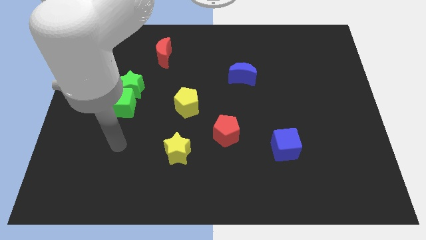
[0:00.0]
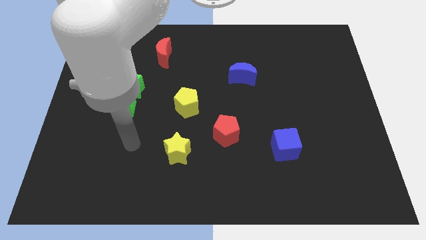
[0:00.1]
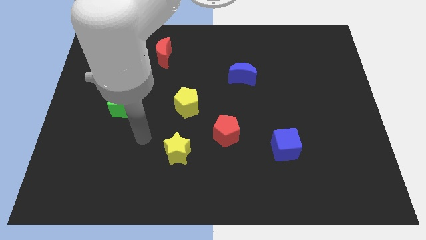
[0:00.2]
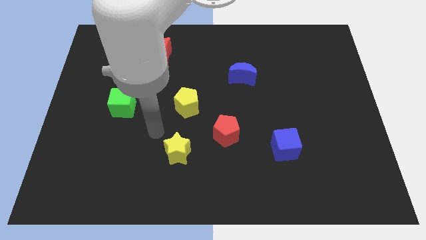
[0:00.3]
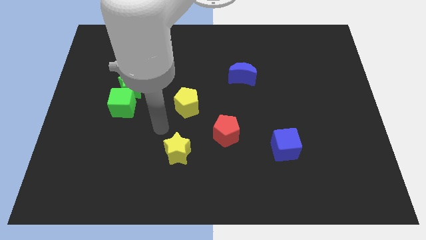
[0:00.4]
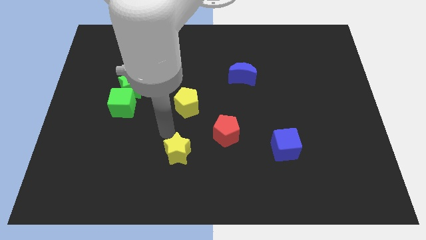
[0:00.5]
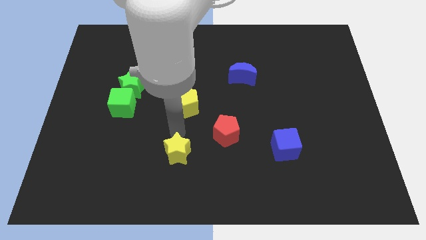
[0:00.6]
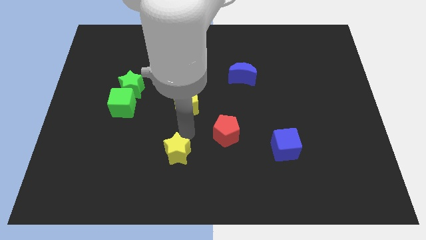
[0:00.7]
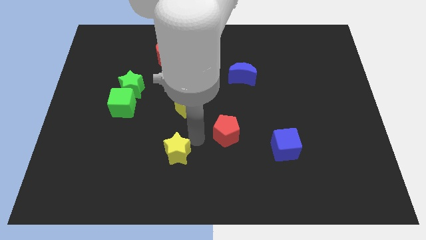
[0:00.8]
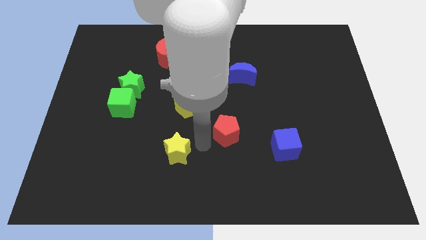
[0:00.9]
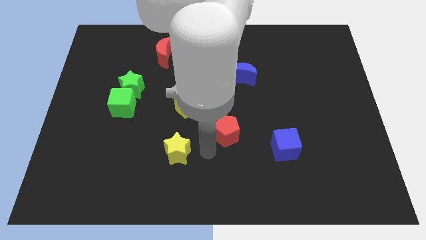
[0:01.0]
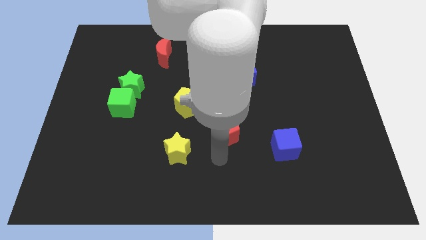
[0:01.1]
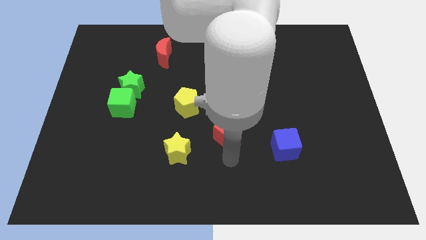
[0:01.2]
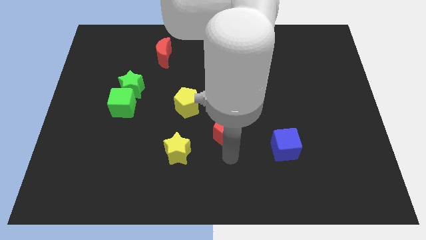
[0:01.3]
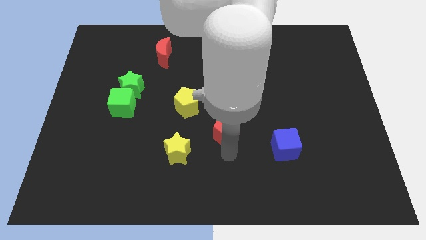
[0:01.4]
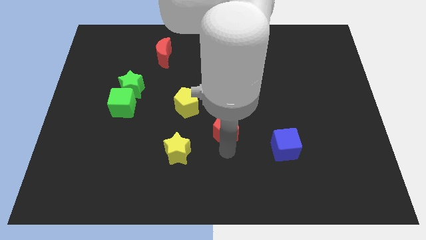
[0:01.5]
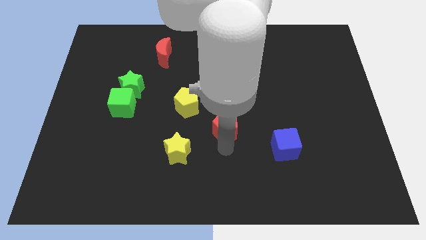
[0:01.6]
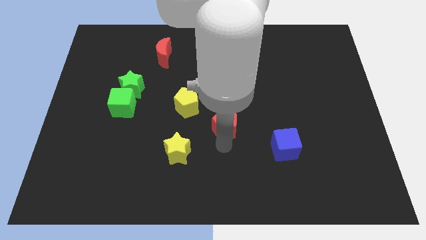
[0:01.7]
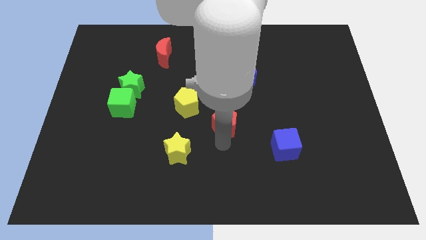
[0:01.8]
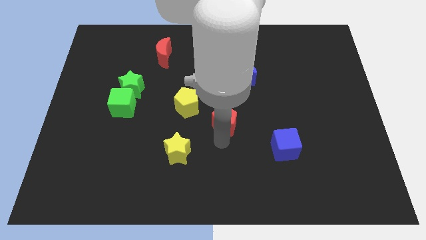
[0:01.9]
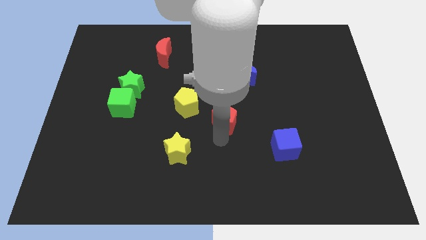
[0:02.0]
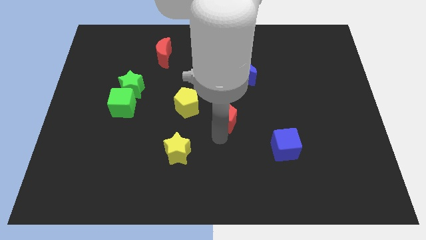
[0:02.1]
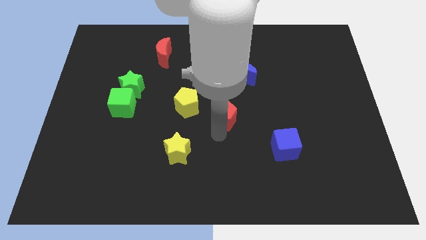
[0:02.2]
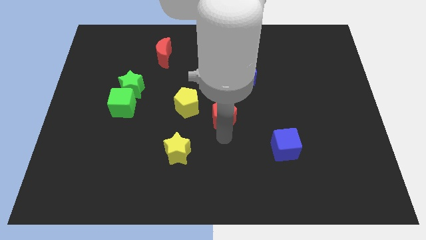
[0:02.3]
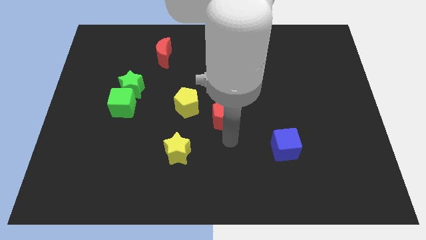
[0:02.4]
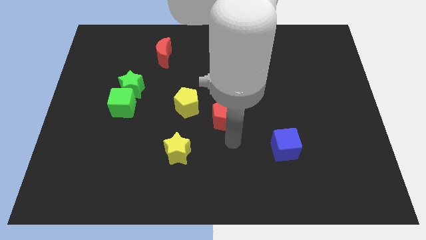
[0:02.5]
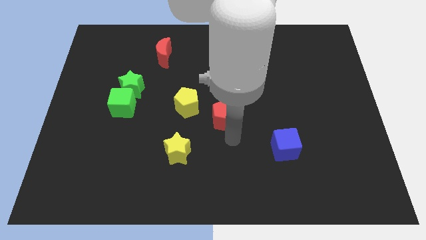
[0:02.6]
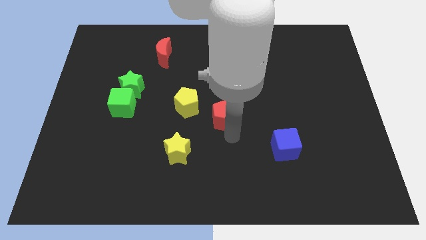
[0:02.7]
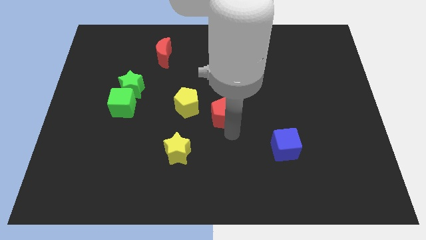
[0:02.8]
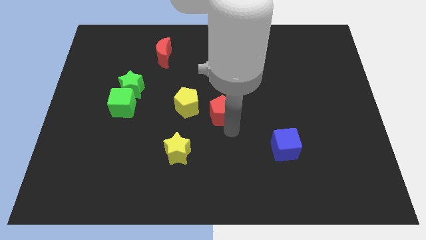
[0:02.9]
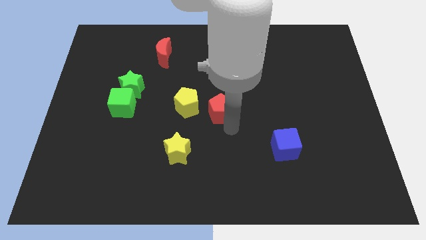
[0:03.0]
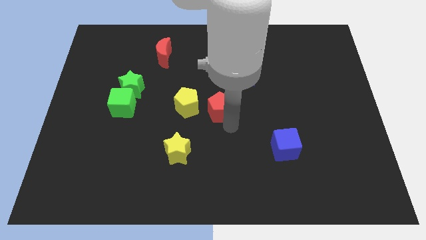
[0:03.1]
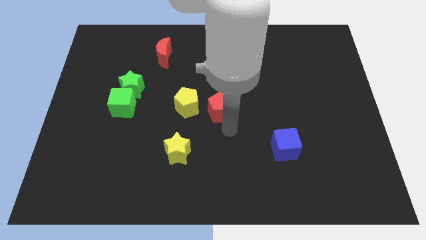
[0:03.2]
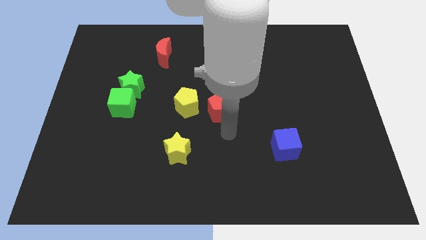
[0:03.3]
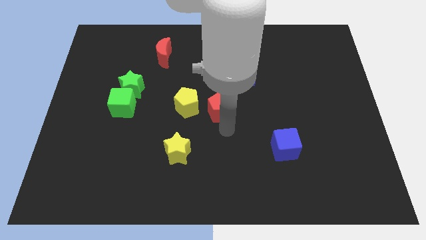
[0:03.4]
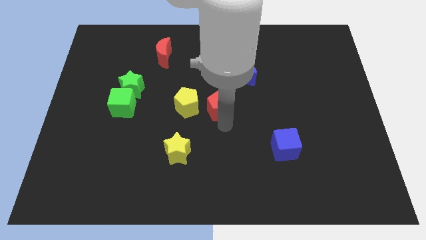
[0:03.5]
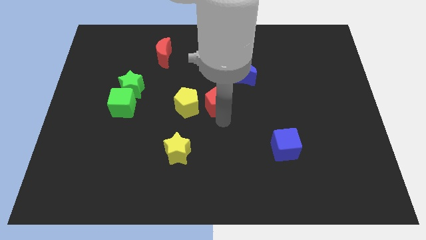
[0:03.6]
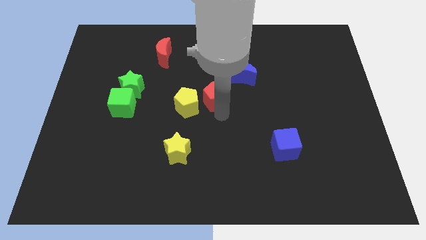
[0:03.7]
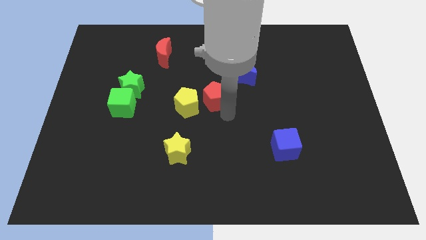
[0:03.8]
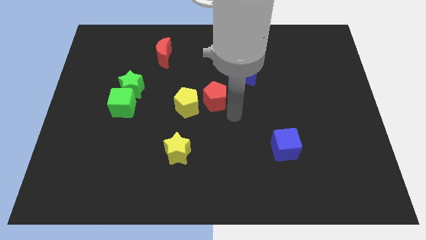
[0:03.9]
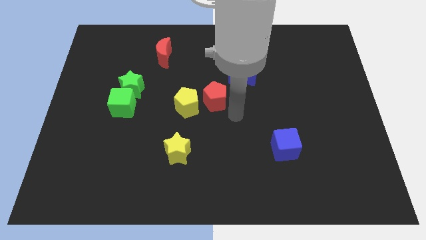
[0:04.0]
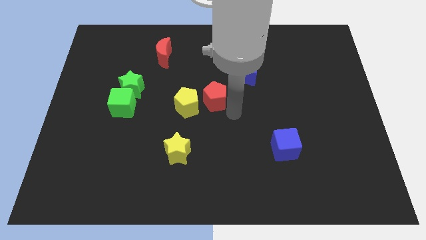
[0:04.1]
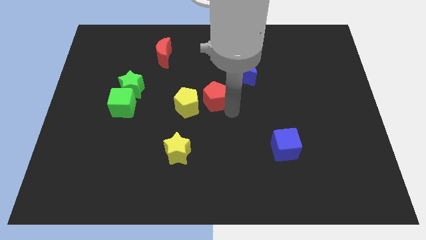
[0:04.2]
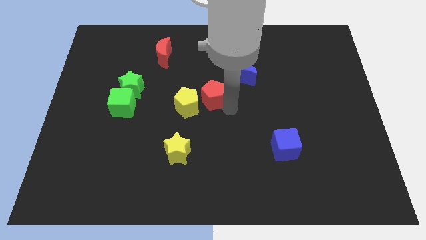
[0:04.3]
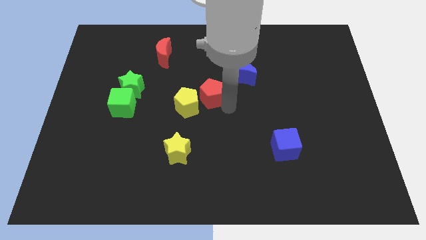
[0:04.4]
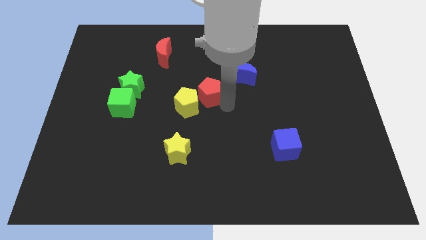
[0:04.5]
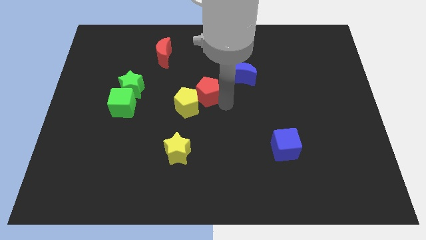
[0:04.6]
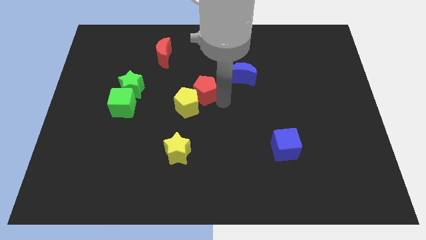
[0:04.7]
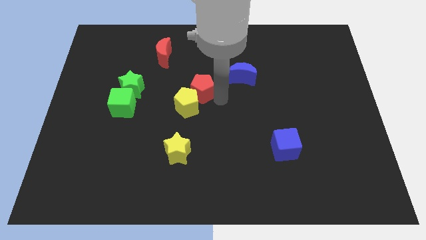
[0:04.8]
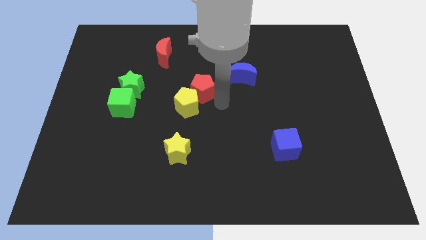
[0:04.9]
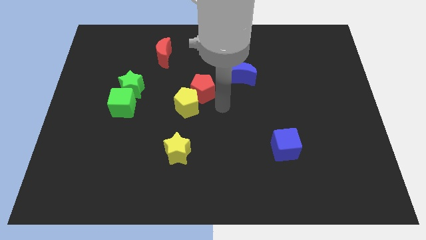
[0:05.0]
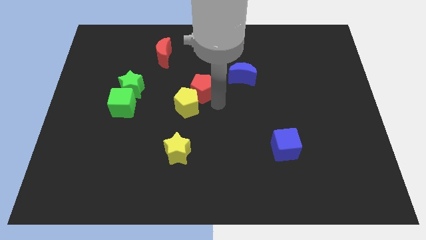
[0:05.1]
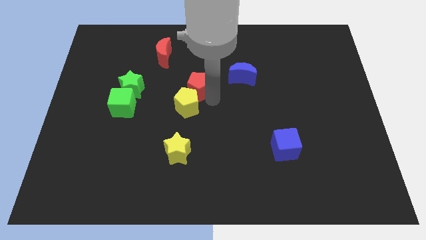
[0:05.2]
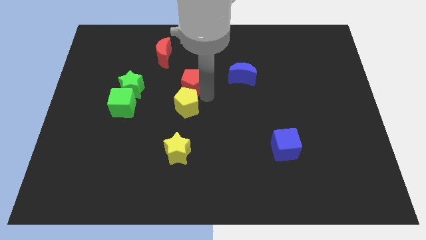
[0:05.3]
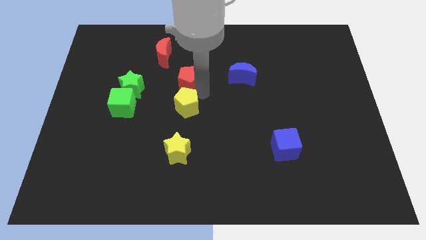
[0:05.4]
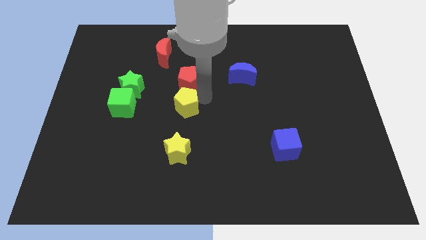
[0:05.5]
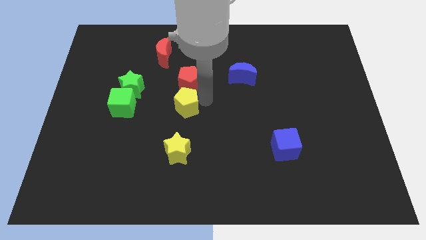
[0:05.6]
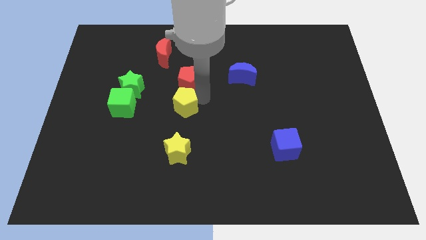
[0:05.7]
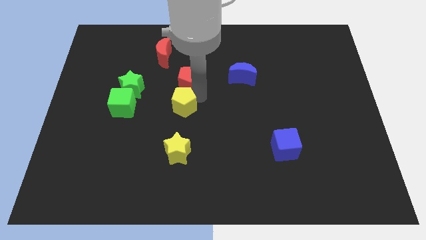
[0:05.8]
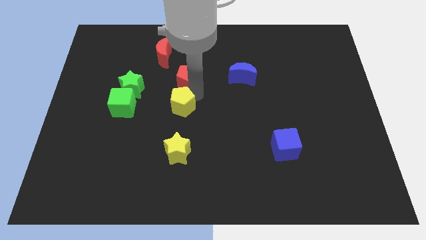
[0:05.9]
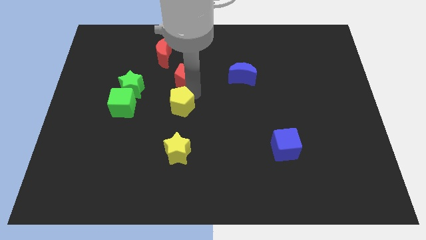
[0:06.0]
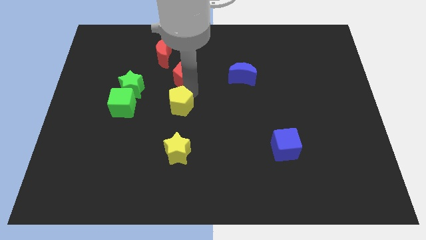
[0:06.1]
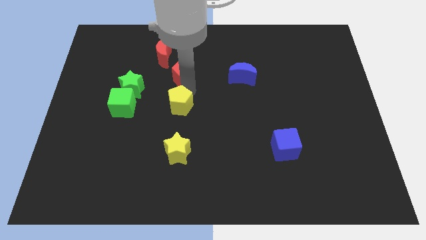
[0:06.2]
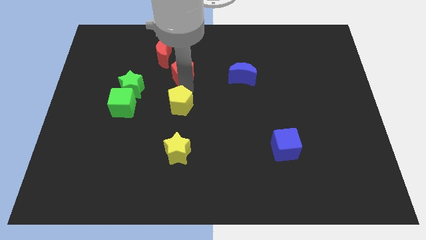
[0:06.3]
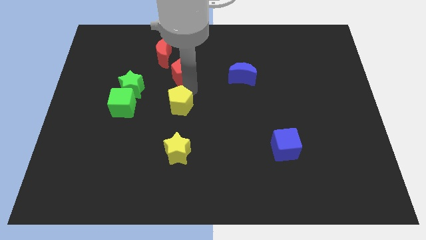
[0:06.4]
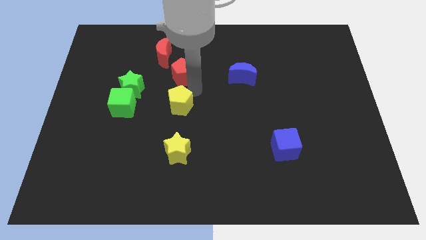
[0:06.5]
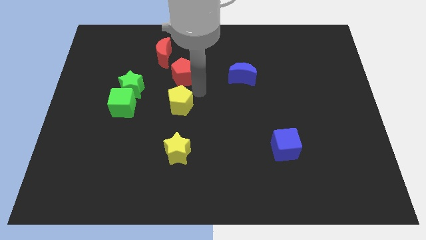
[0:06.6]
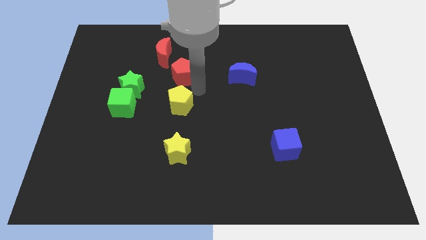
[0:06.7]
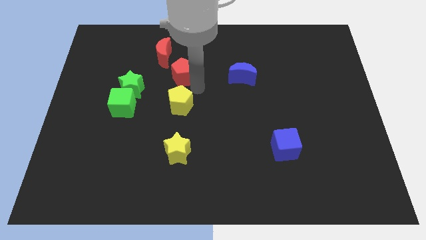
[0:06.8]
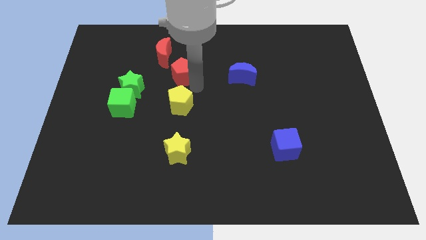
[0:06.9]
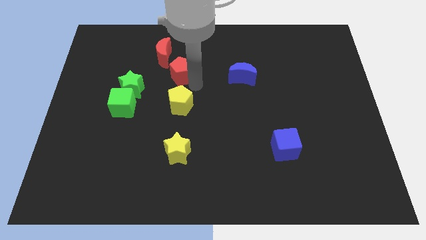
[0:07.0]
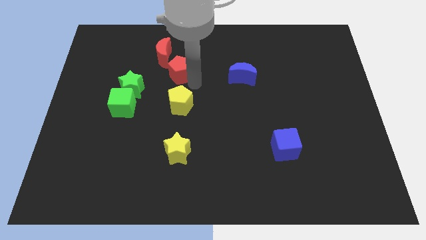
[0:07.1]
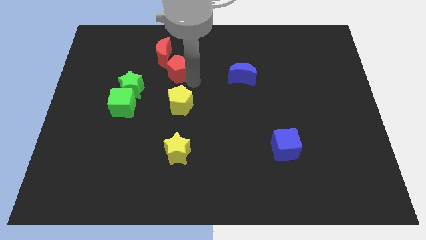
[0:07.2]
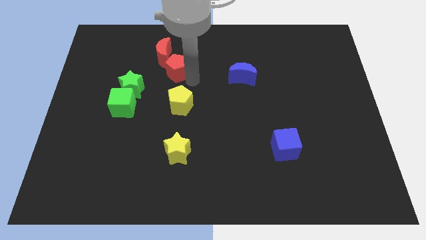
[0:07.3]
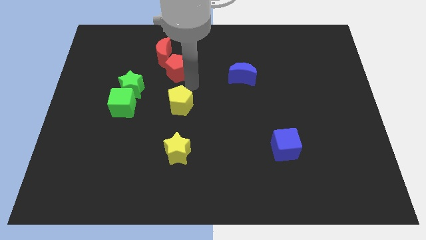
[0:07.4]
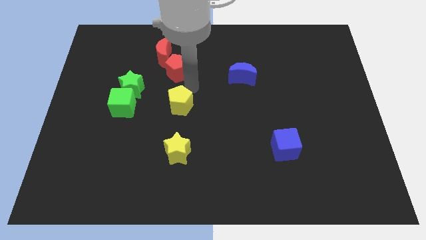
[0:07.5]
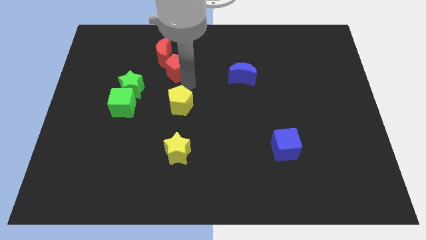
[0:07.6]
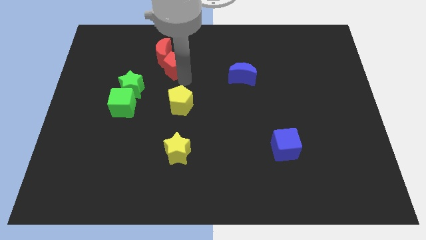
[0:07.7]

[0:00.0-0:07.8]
slide the red pentagon towards the red moon
